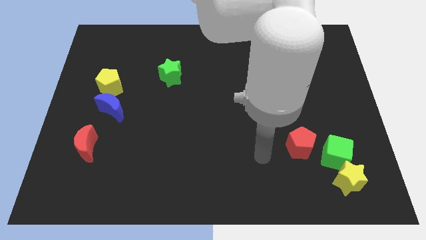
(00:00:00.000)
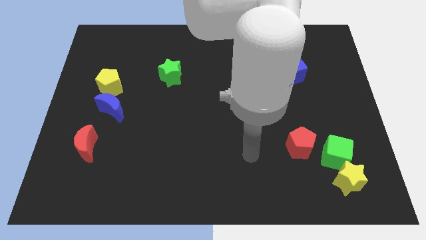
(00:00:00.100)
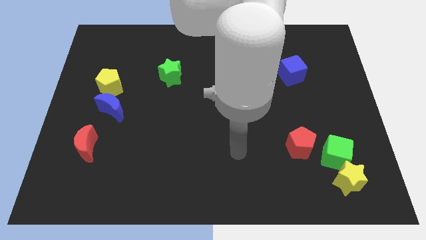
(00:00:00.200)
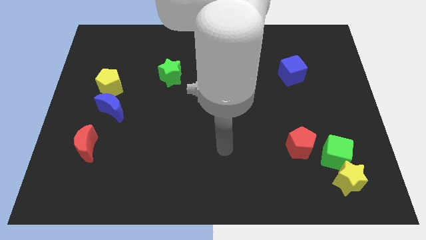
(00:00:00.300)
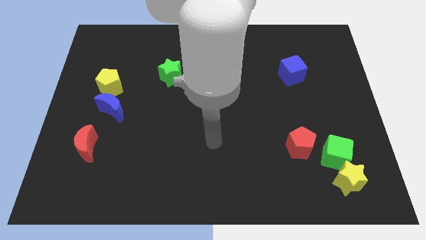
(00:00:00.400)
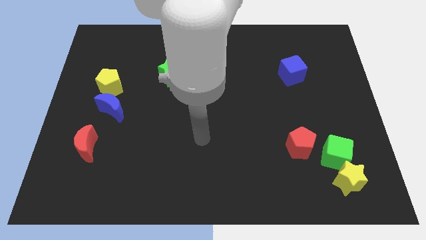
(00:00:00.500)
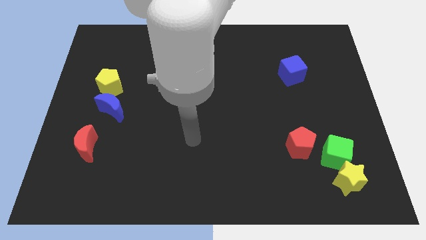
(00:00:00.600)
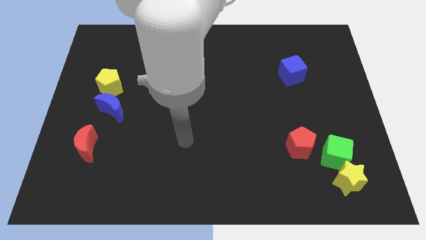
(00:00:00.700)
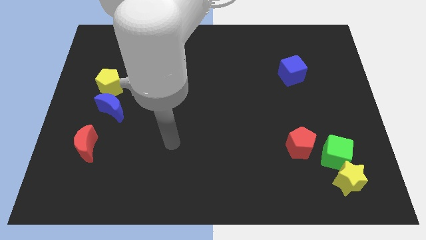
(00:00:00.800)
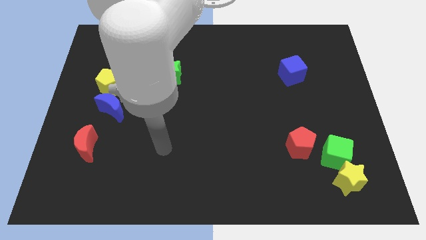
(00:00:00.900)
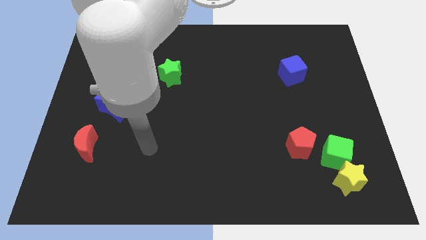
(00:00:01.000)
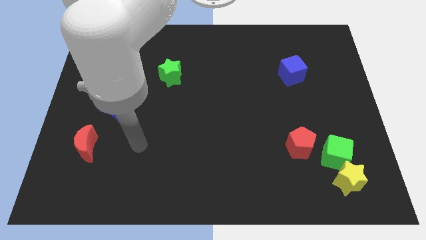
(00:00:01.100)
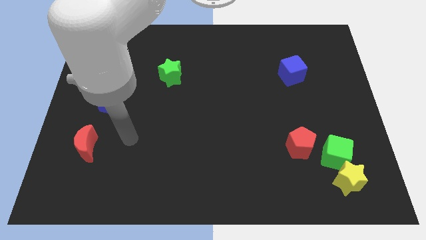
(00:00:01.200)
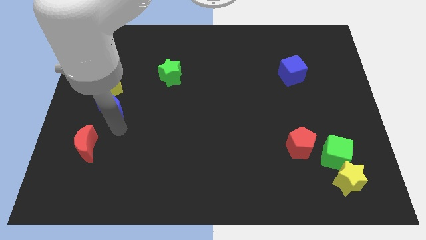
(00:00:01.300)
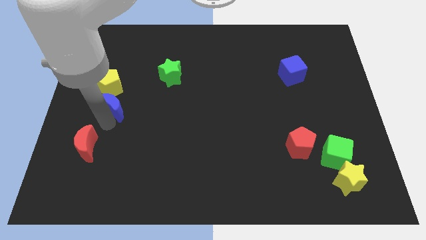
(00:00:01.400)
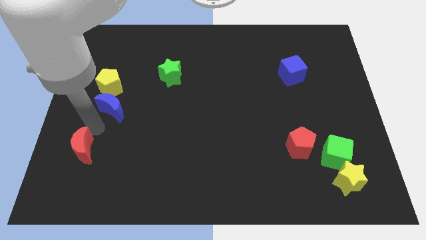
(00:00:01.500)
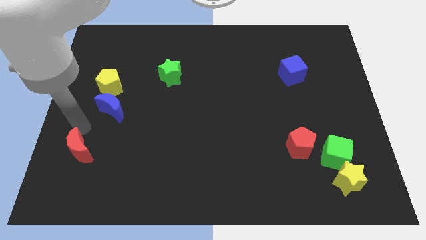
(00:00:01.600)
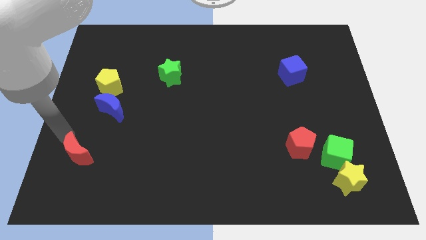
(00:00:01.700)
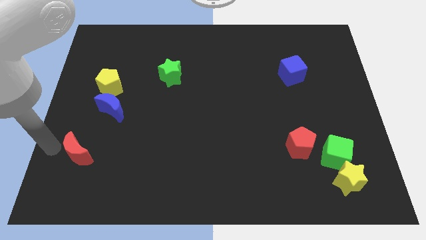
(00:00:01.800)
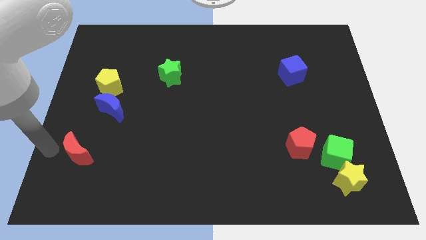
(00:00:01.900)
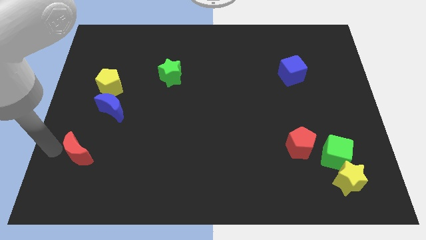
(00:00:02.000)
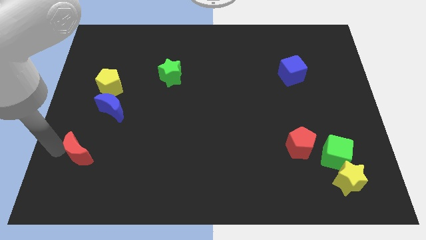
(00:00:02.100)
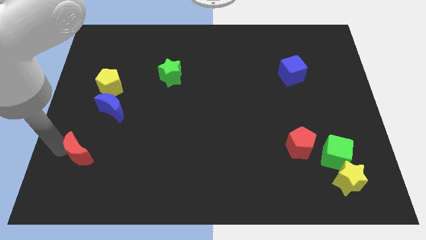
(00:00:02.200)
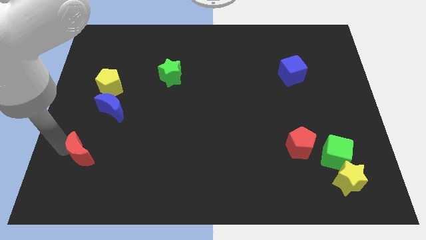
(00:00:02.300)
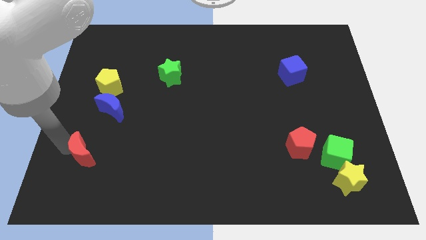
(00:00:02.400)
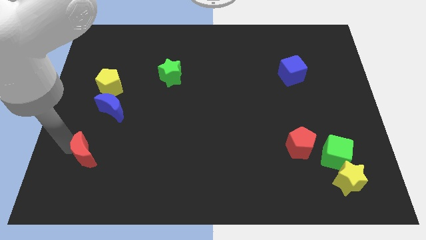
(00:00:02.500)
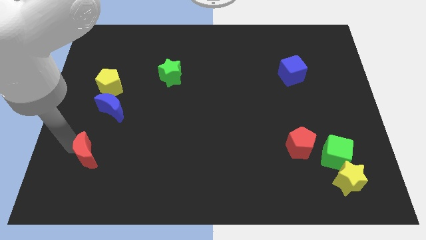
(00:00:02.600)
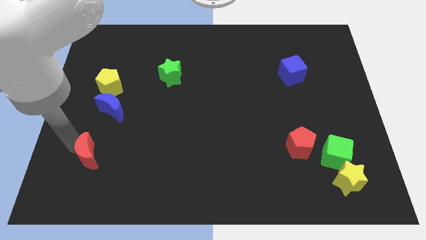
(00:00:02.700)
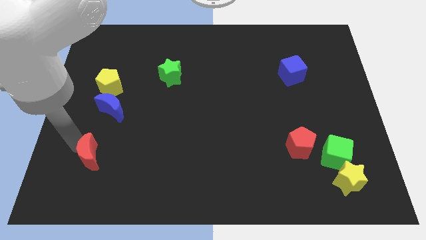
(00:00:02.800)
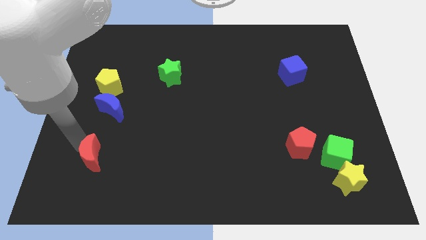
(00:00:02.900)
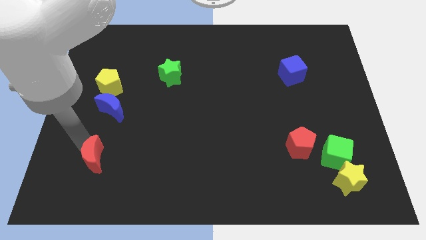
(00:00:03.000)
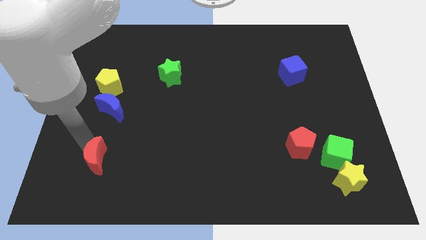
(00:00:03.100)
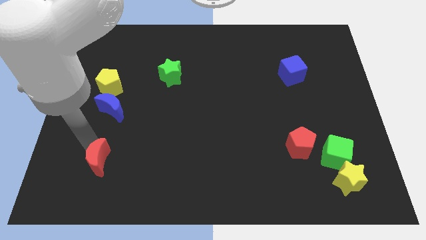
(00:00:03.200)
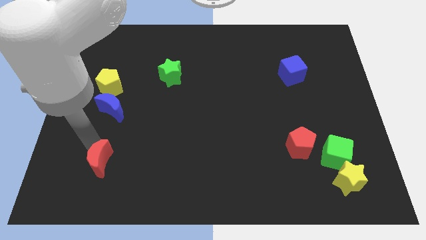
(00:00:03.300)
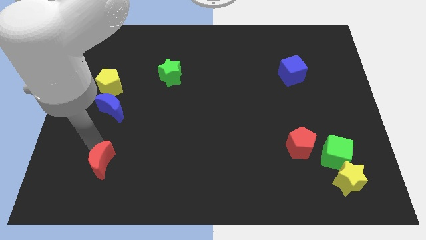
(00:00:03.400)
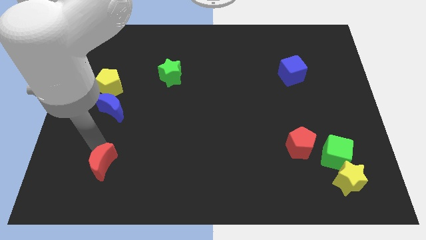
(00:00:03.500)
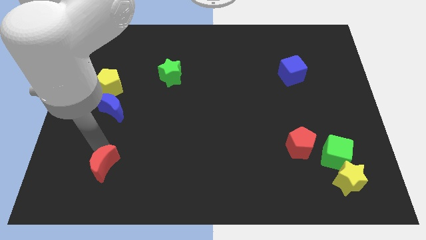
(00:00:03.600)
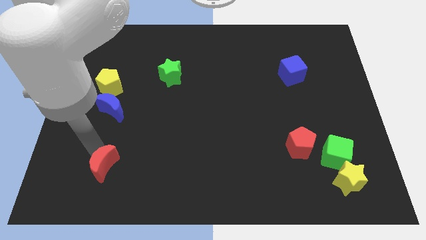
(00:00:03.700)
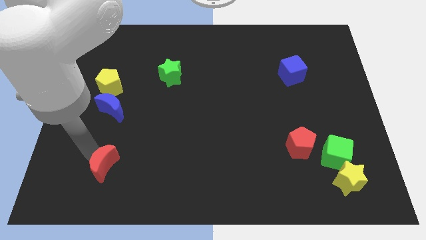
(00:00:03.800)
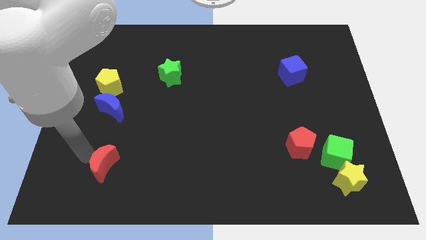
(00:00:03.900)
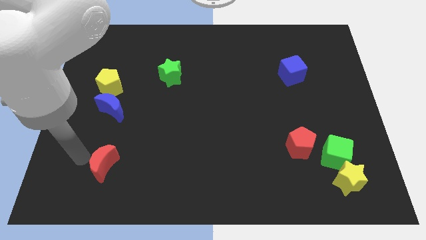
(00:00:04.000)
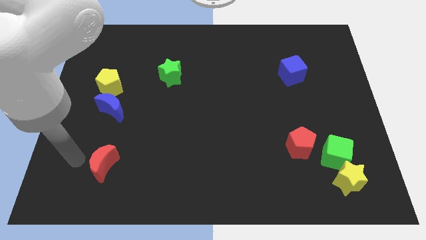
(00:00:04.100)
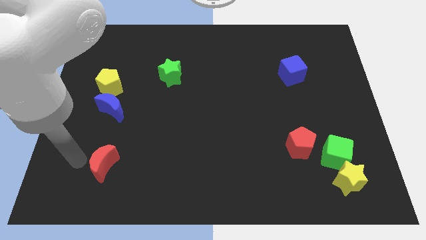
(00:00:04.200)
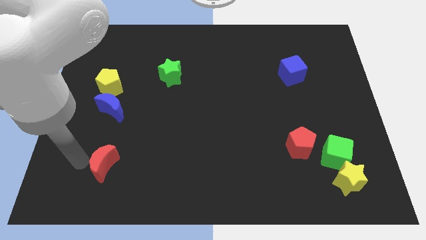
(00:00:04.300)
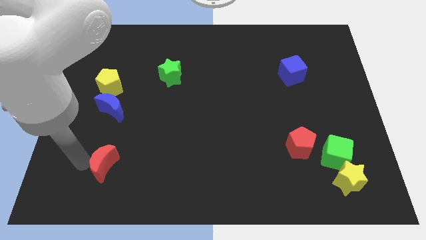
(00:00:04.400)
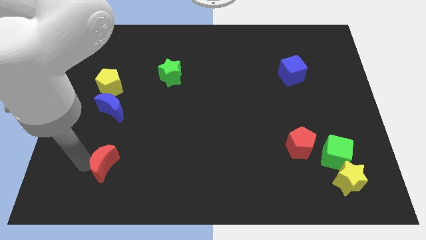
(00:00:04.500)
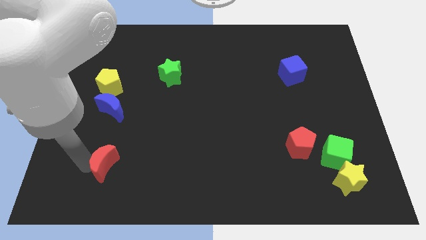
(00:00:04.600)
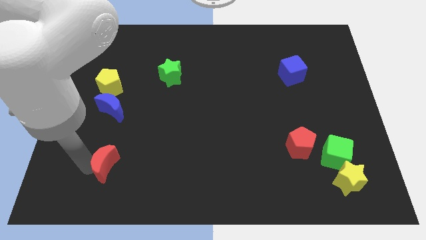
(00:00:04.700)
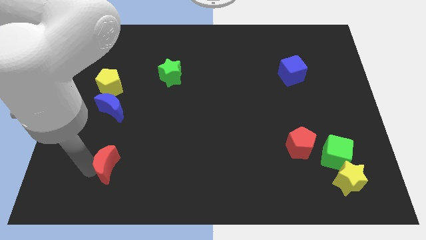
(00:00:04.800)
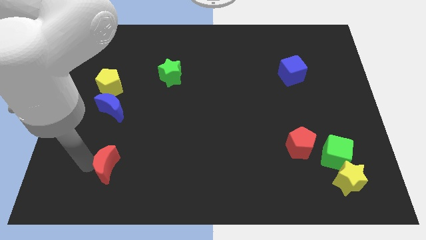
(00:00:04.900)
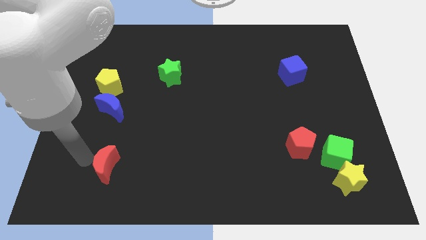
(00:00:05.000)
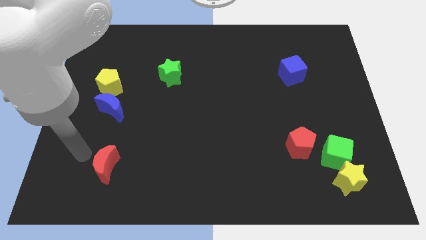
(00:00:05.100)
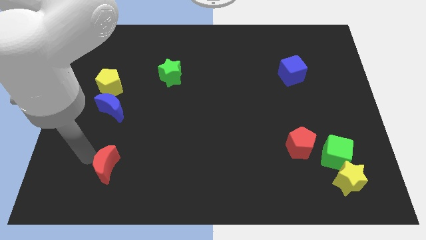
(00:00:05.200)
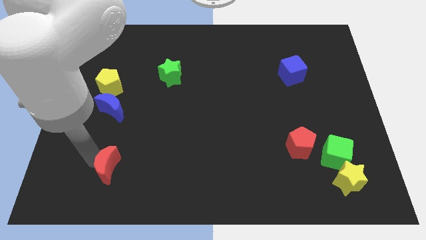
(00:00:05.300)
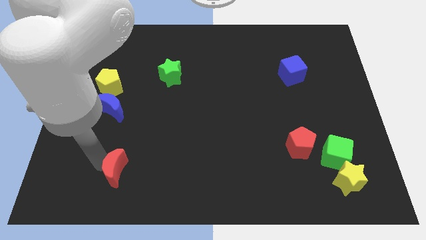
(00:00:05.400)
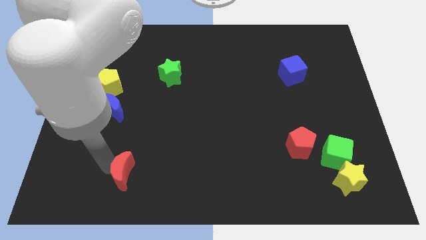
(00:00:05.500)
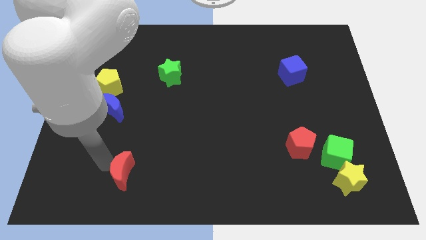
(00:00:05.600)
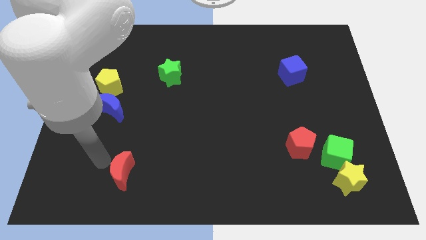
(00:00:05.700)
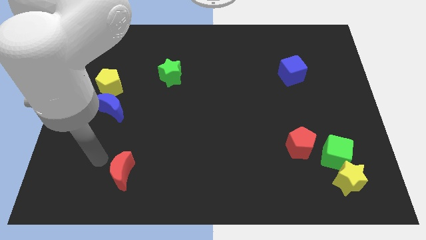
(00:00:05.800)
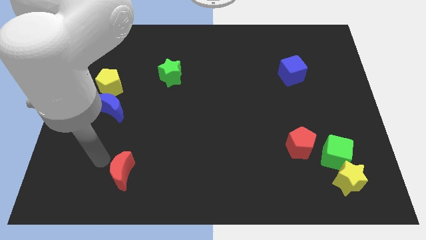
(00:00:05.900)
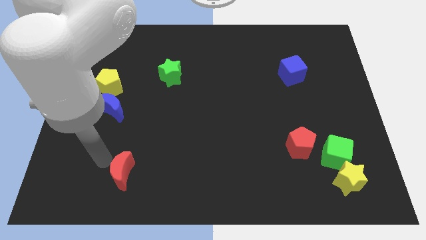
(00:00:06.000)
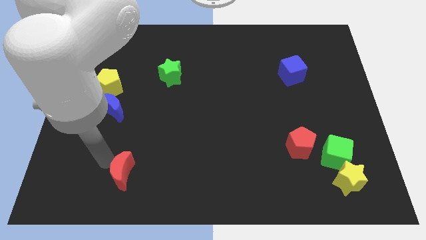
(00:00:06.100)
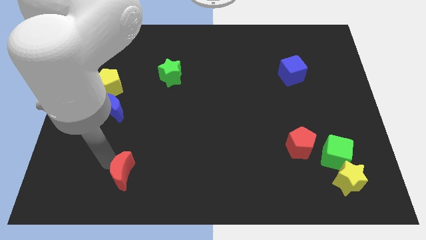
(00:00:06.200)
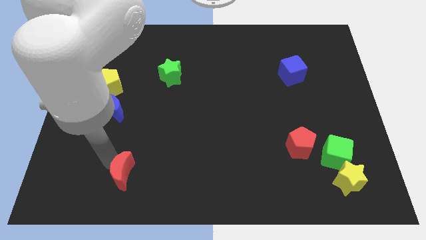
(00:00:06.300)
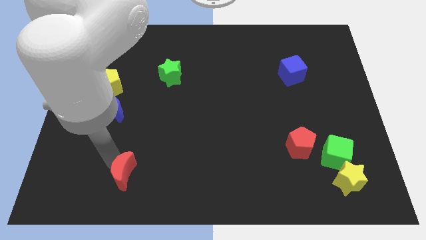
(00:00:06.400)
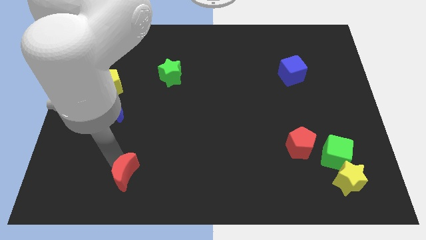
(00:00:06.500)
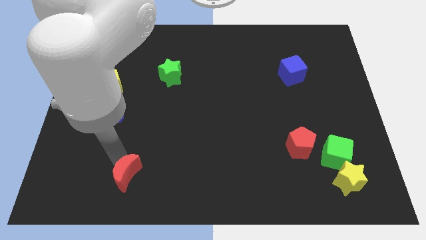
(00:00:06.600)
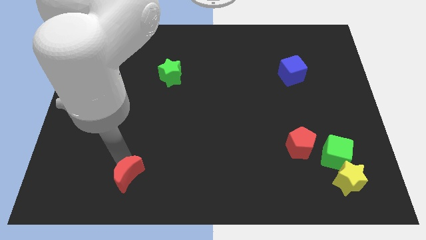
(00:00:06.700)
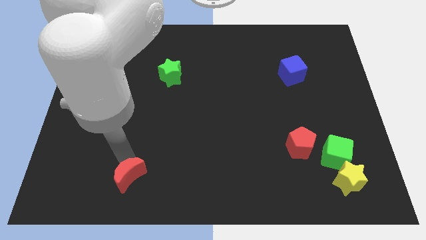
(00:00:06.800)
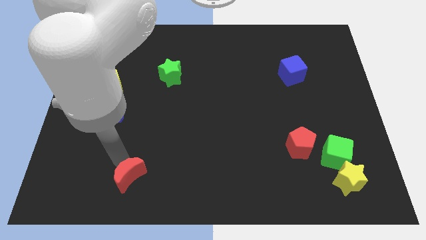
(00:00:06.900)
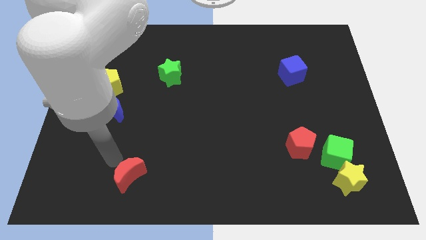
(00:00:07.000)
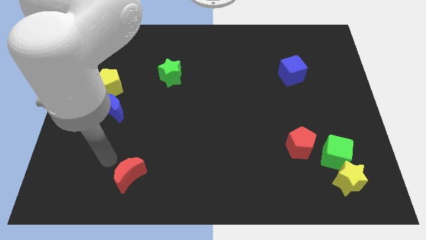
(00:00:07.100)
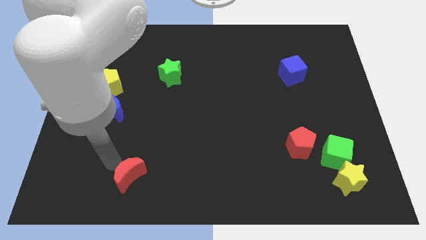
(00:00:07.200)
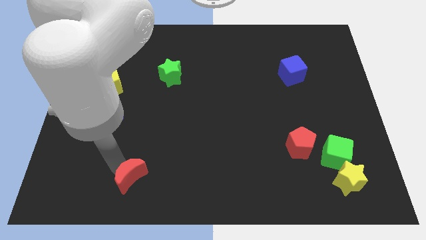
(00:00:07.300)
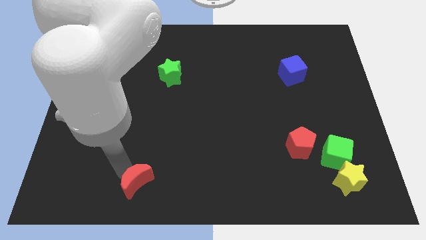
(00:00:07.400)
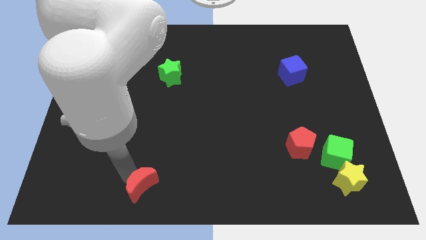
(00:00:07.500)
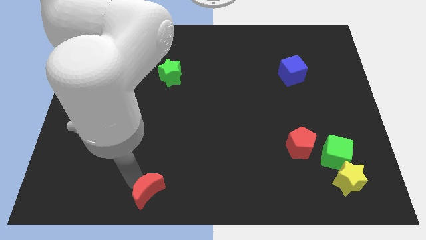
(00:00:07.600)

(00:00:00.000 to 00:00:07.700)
slide the red moon to the bottom
